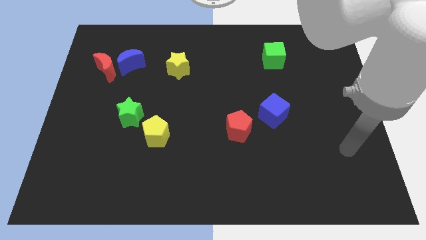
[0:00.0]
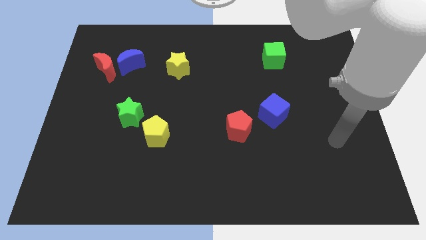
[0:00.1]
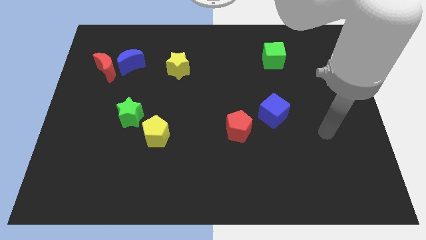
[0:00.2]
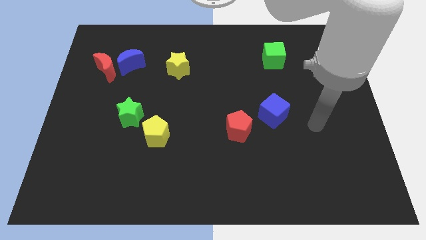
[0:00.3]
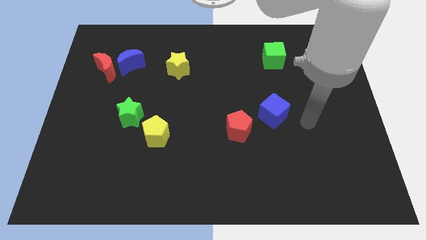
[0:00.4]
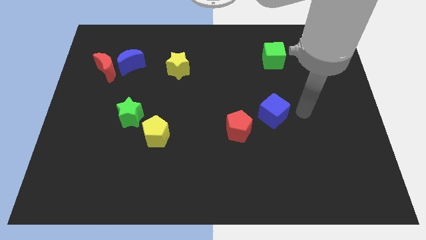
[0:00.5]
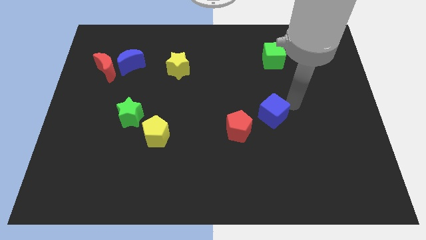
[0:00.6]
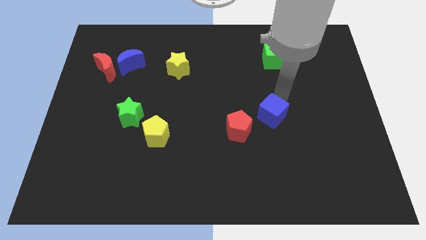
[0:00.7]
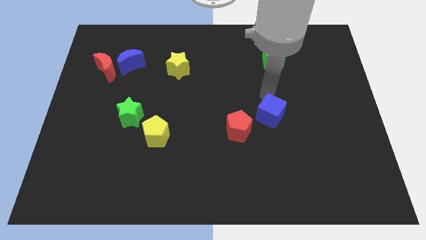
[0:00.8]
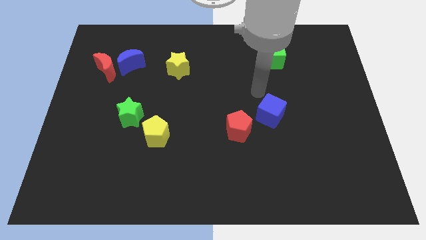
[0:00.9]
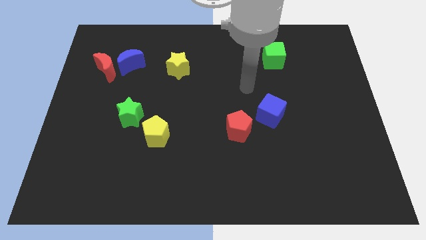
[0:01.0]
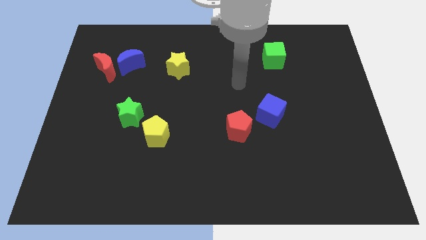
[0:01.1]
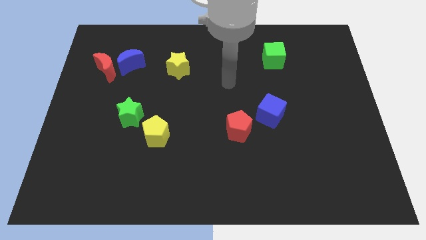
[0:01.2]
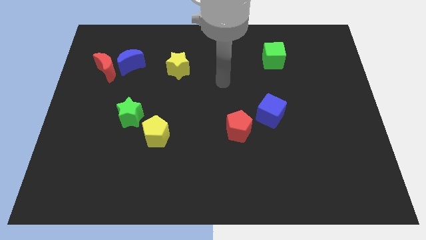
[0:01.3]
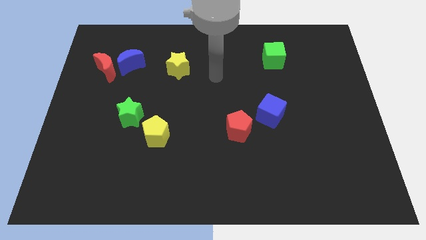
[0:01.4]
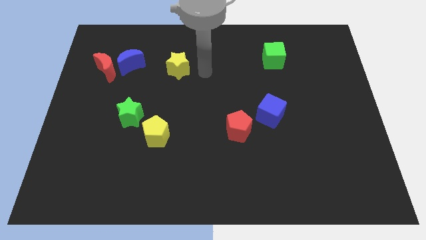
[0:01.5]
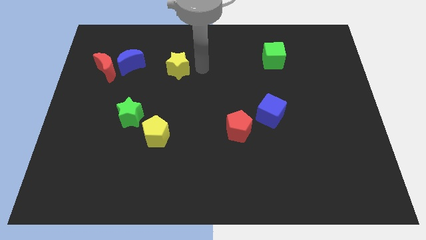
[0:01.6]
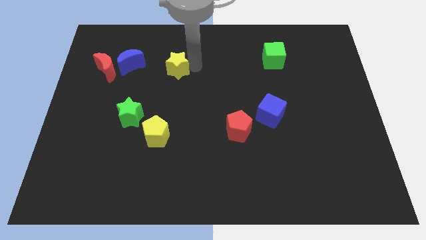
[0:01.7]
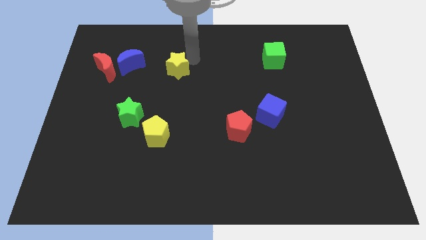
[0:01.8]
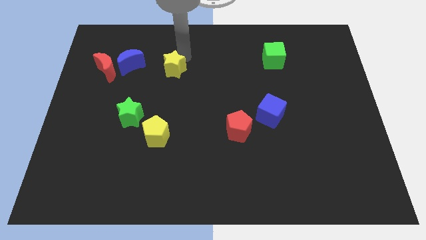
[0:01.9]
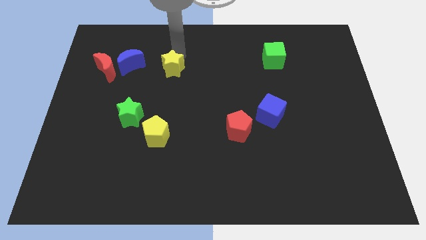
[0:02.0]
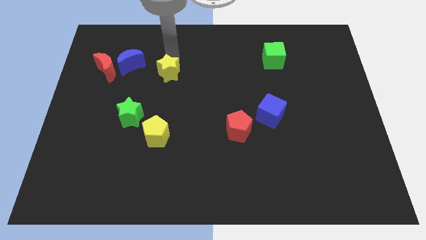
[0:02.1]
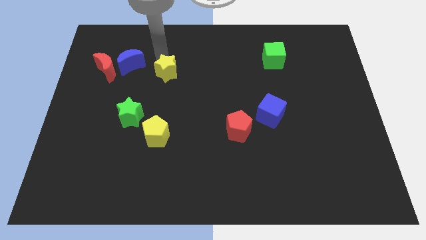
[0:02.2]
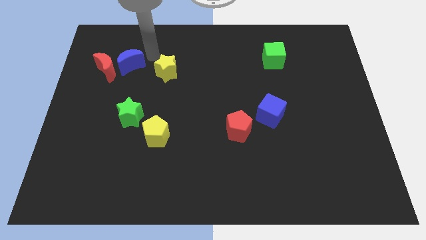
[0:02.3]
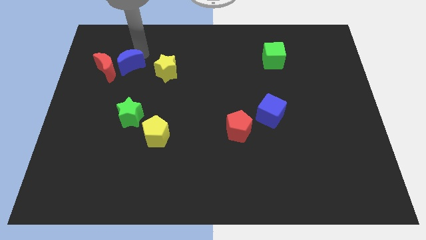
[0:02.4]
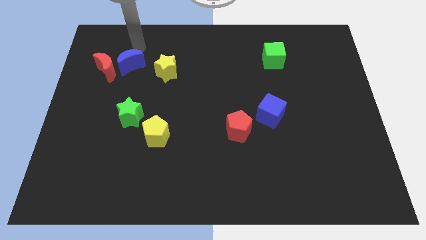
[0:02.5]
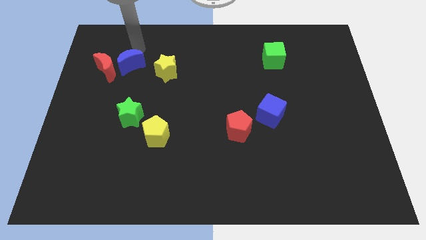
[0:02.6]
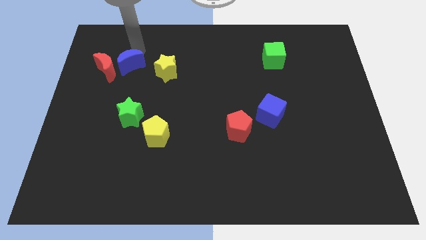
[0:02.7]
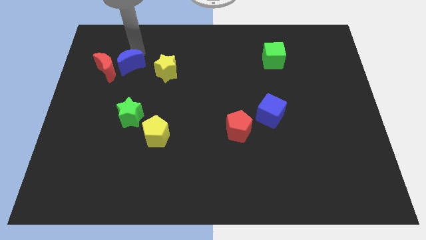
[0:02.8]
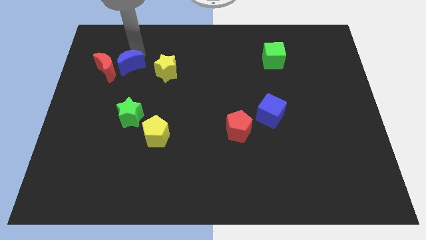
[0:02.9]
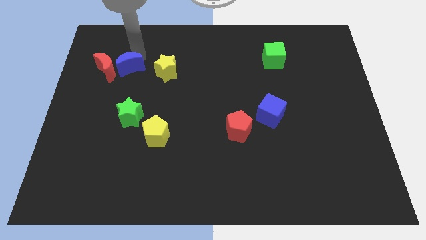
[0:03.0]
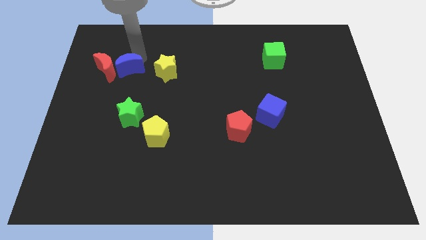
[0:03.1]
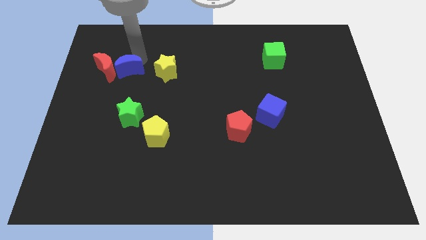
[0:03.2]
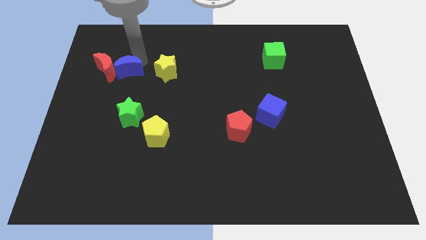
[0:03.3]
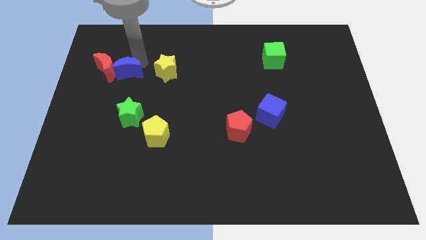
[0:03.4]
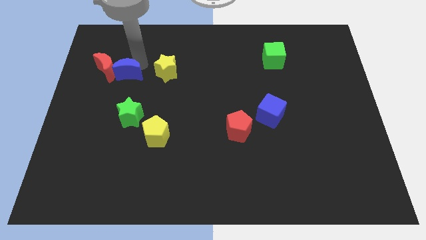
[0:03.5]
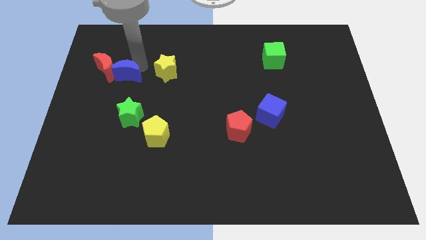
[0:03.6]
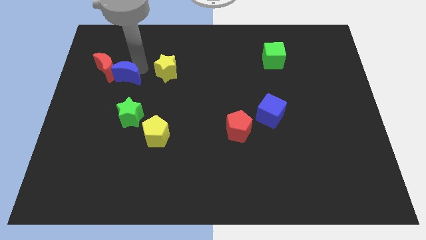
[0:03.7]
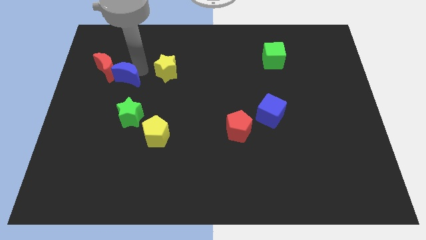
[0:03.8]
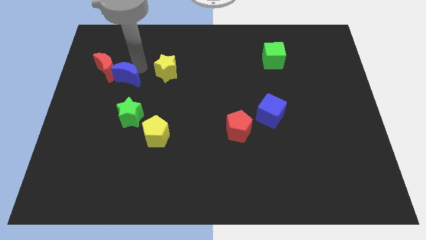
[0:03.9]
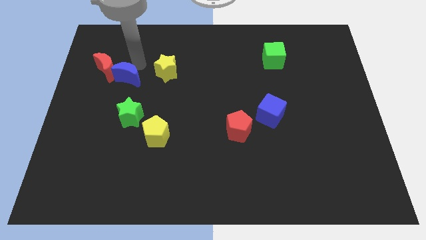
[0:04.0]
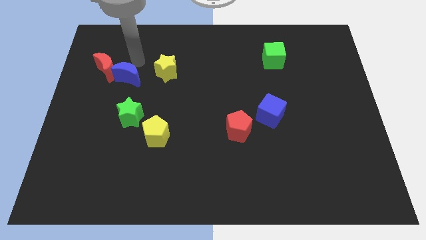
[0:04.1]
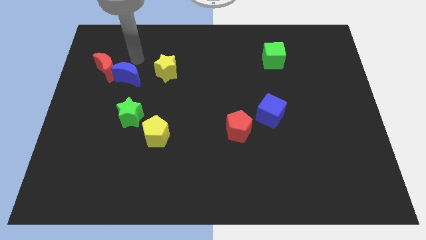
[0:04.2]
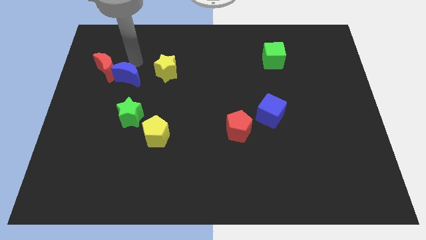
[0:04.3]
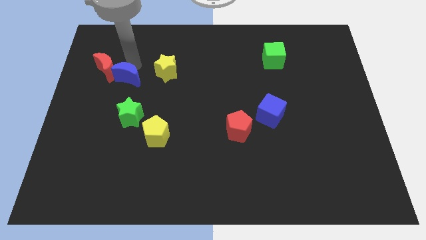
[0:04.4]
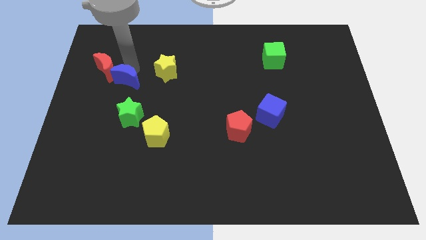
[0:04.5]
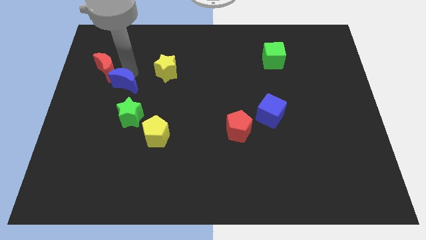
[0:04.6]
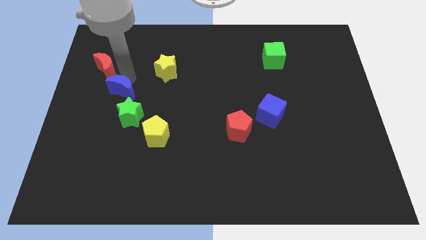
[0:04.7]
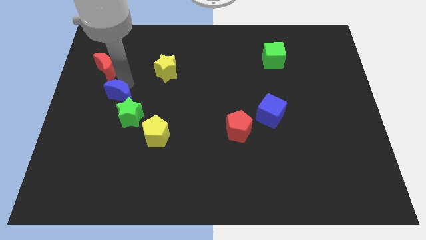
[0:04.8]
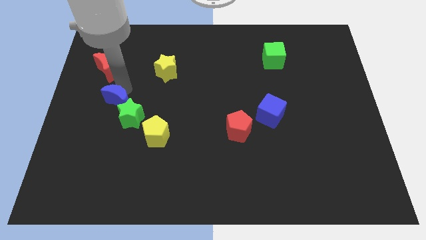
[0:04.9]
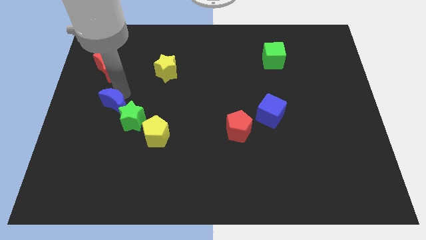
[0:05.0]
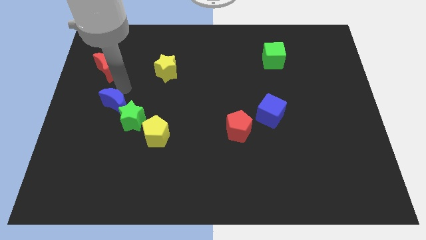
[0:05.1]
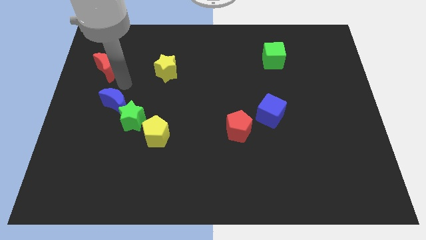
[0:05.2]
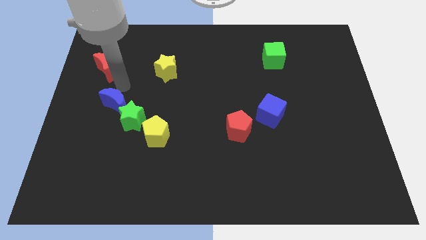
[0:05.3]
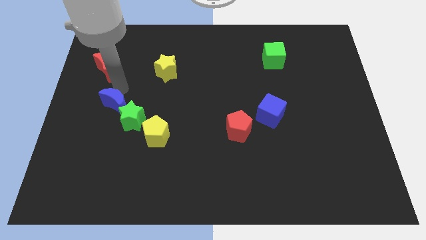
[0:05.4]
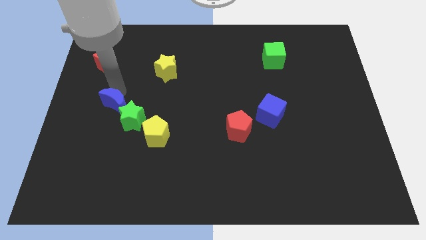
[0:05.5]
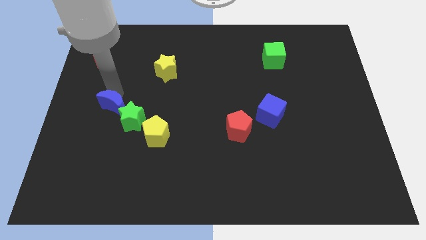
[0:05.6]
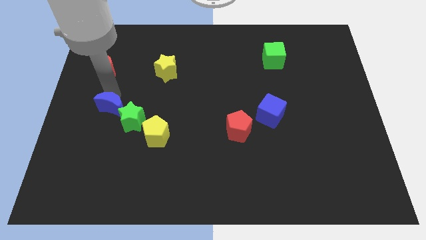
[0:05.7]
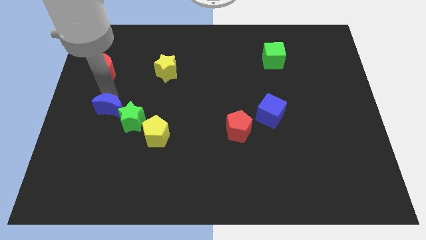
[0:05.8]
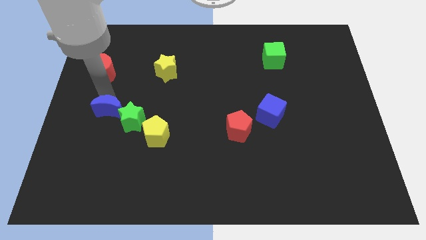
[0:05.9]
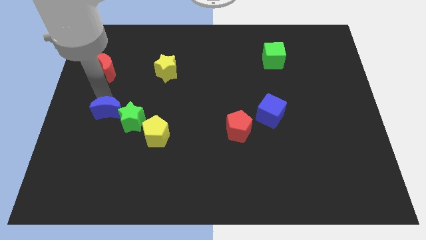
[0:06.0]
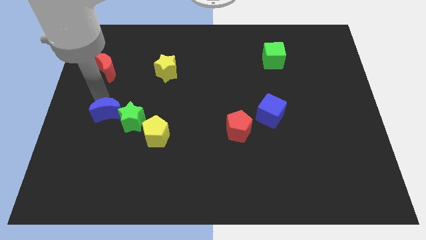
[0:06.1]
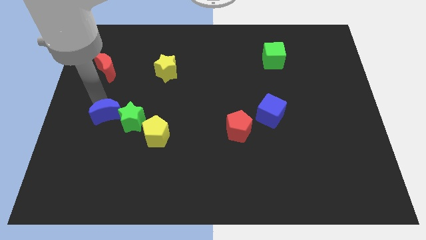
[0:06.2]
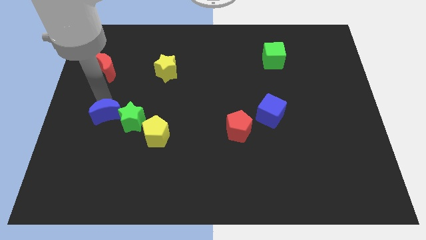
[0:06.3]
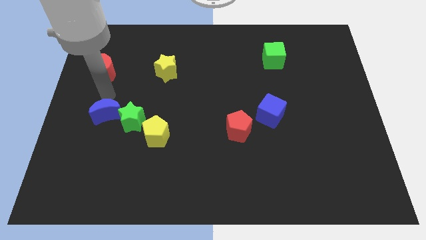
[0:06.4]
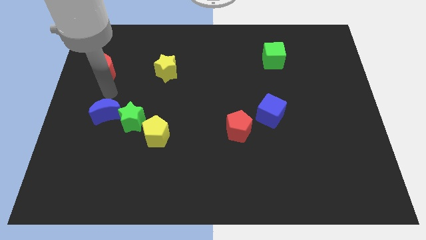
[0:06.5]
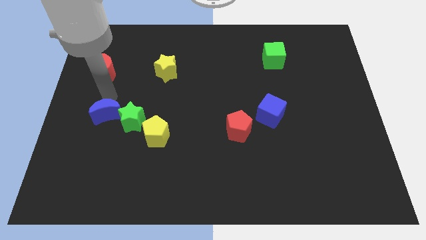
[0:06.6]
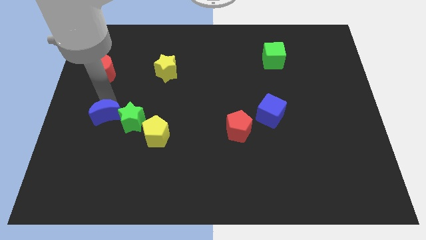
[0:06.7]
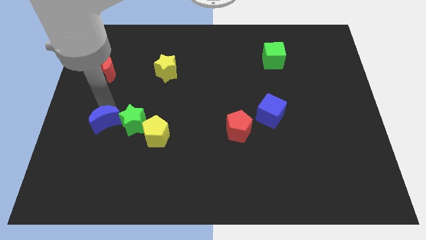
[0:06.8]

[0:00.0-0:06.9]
slide the blue moon to the bottom left side of the green star
